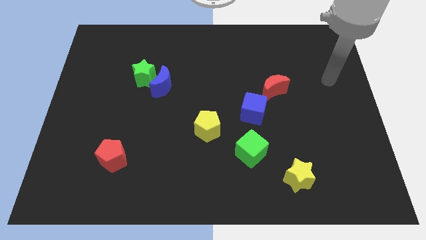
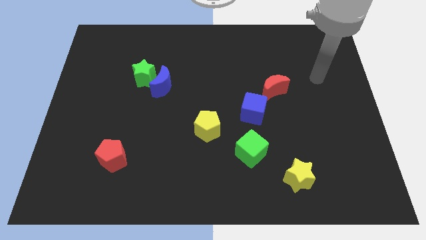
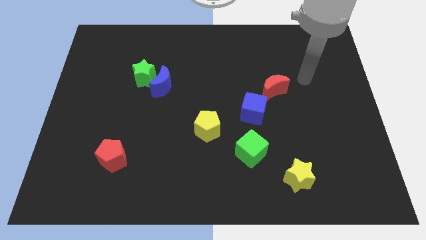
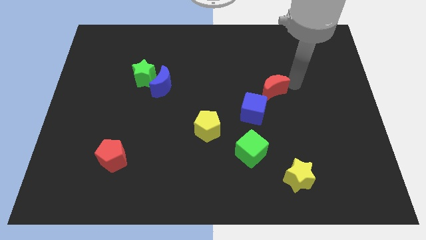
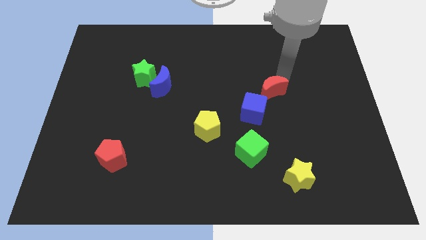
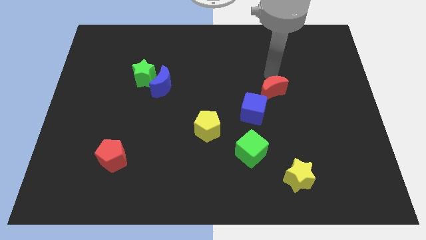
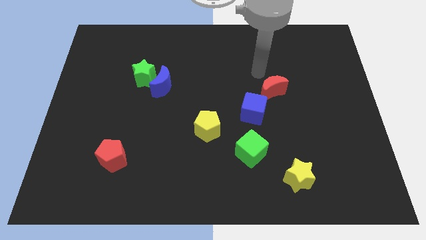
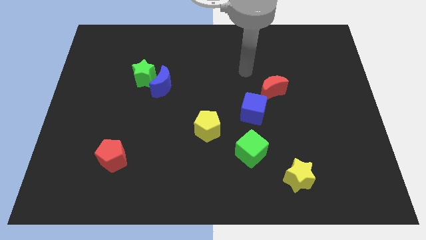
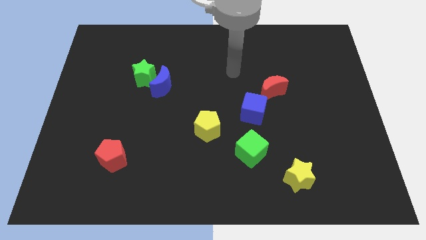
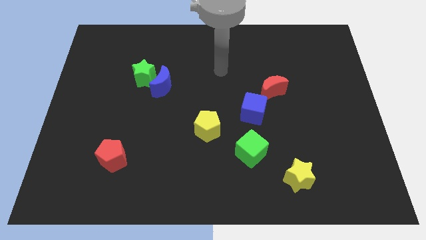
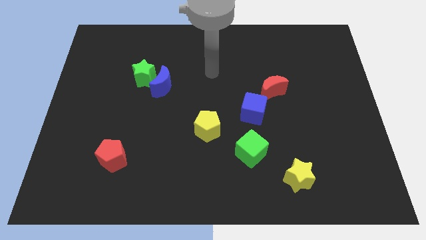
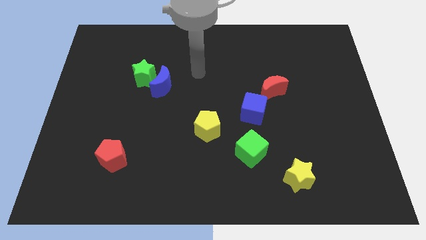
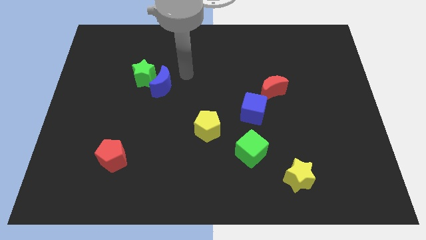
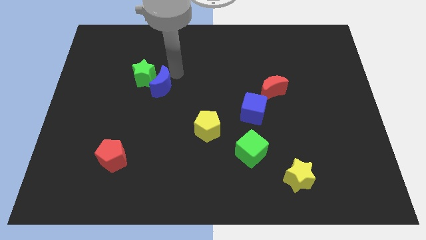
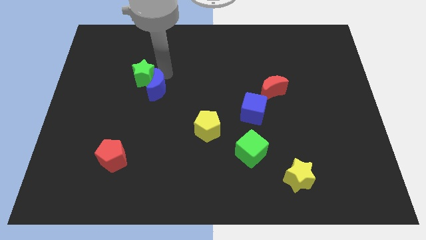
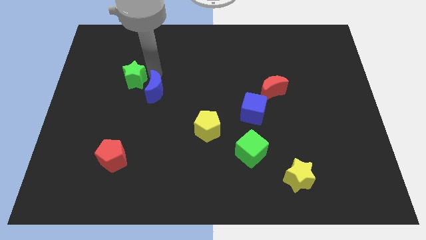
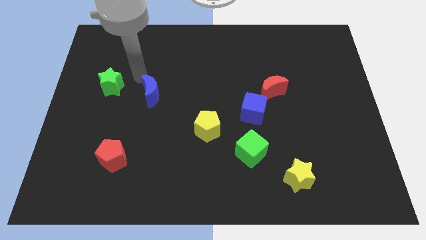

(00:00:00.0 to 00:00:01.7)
separate the blue moon from the green star

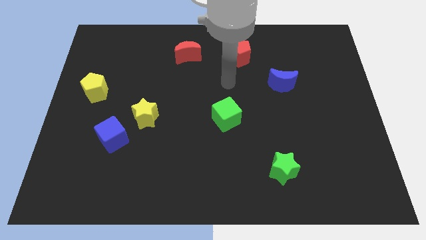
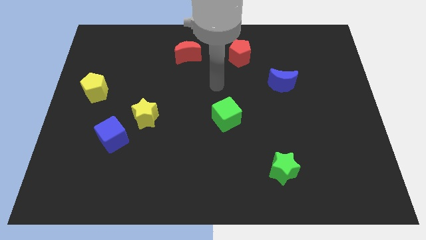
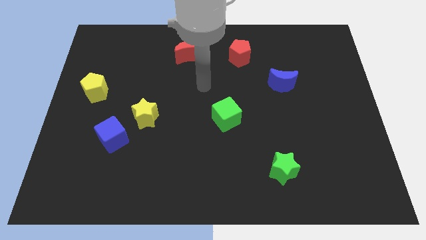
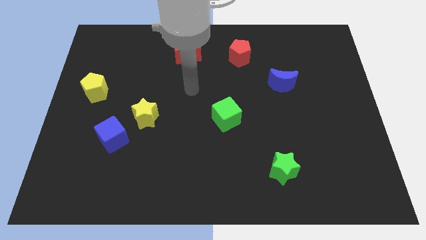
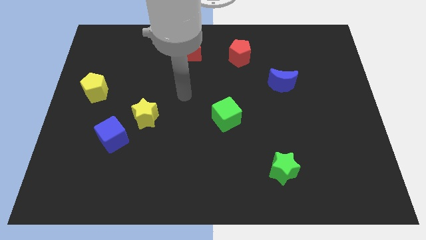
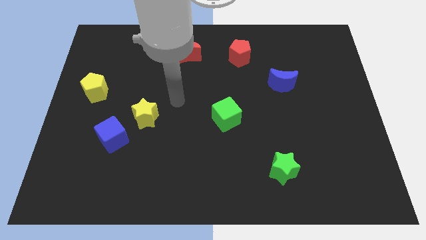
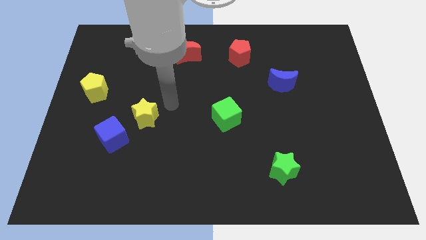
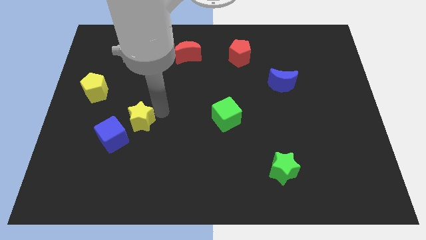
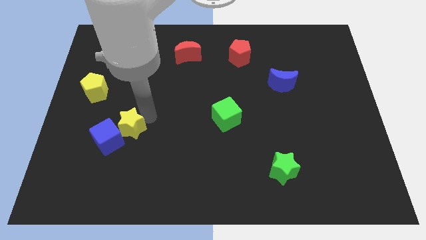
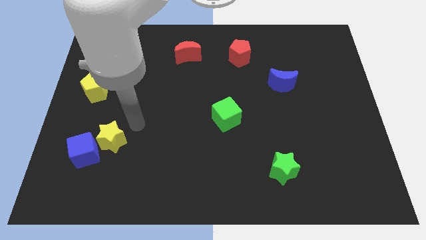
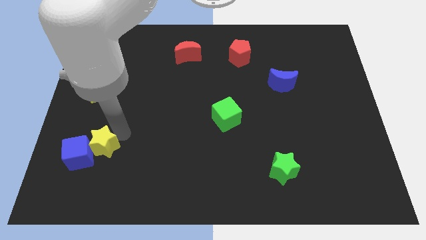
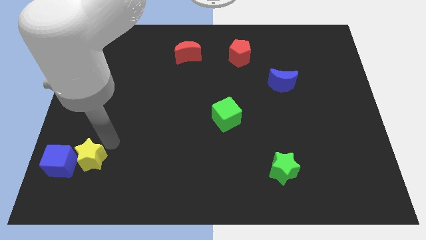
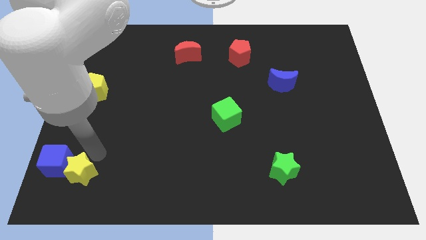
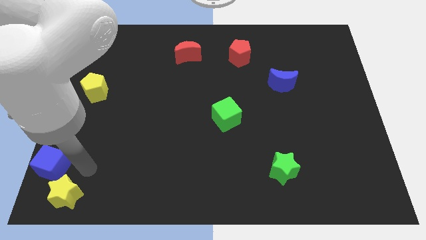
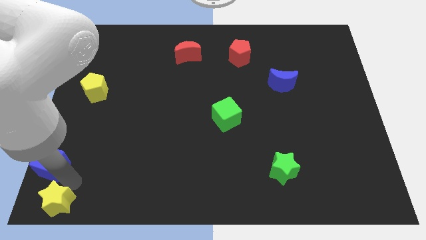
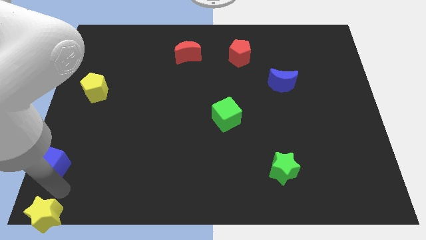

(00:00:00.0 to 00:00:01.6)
separate the blue cube from the yellow star

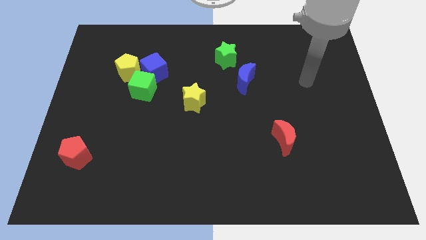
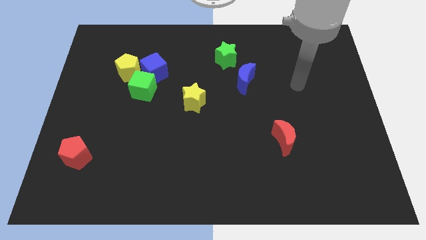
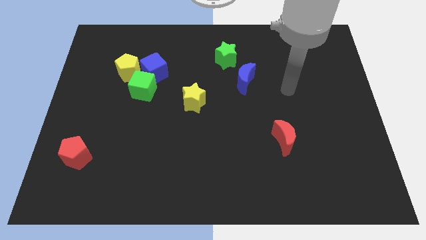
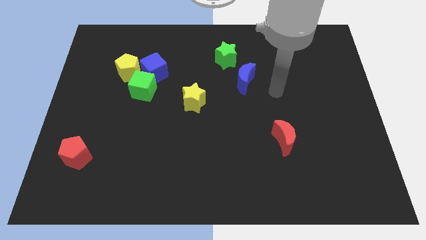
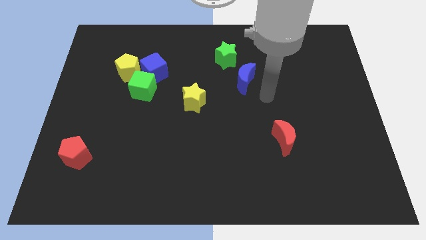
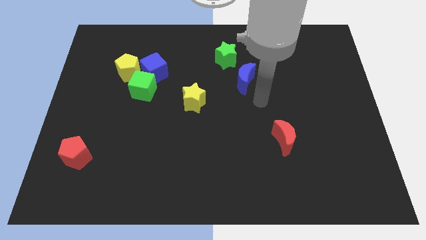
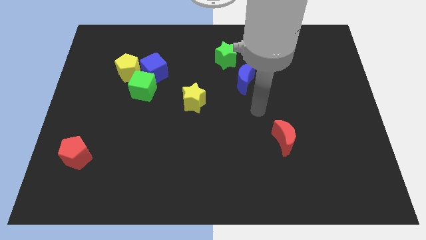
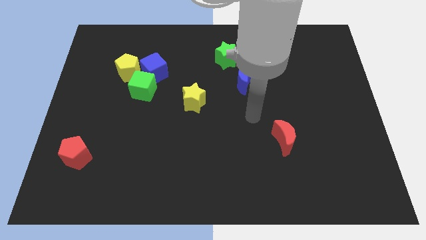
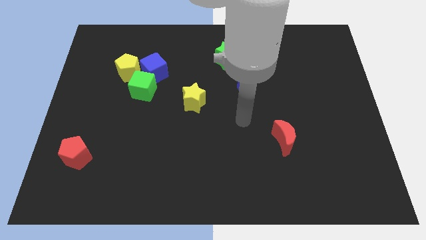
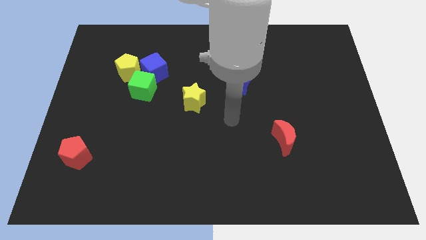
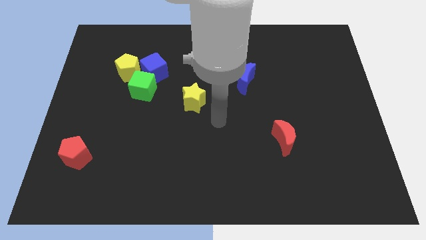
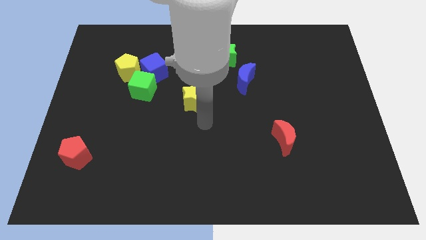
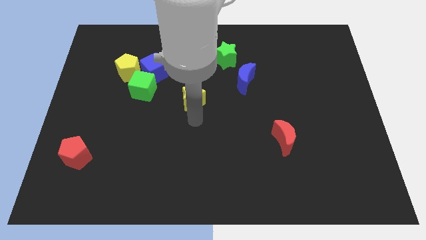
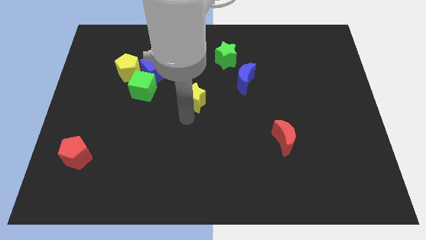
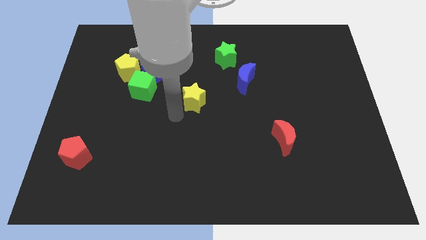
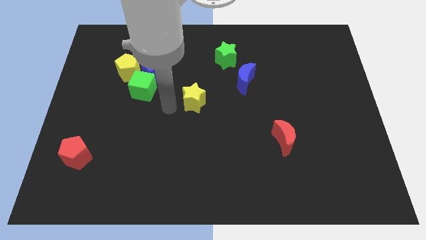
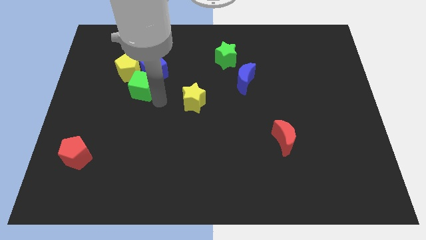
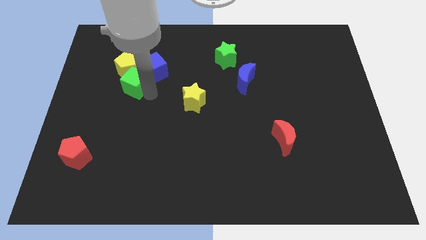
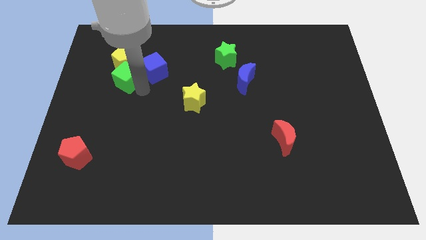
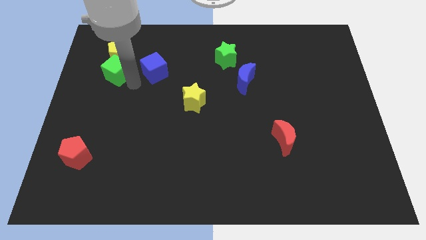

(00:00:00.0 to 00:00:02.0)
move the blue cube away from the green cube and yellow pentagon

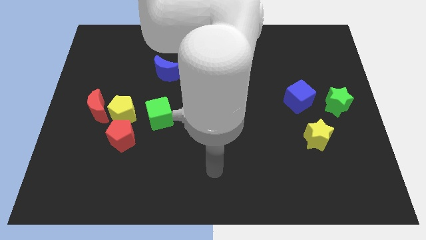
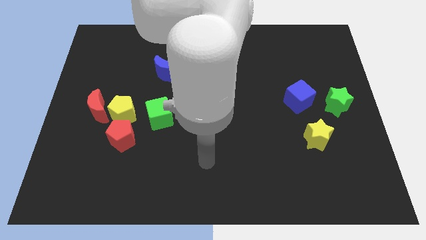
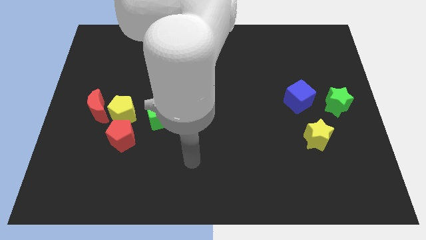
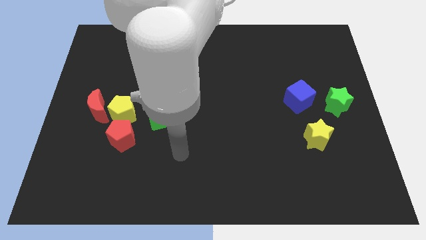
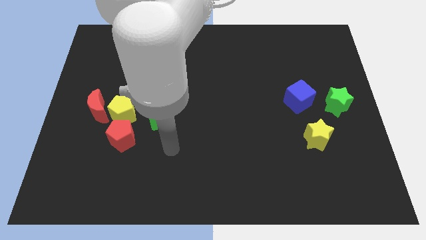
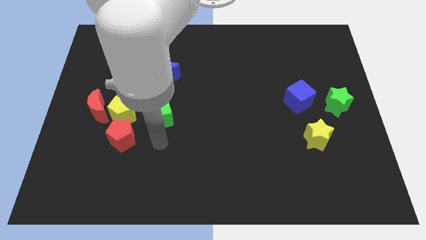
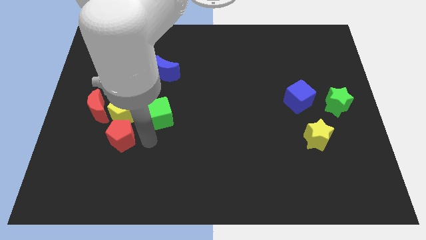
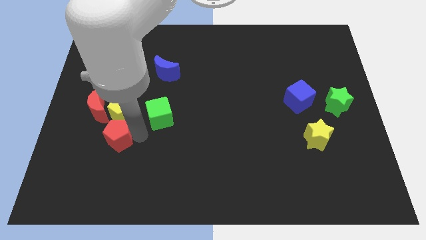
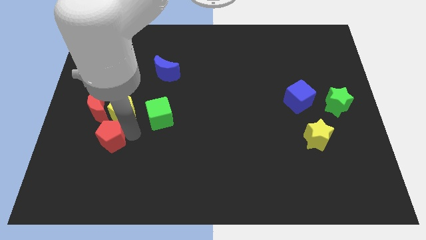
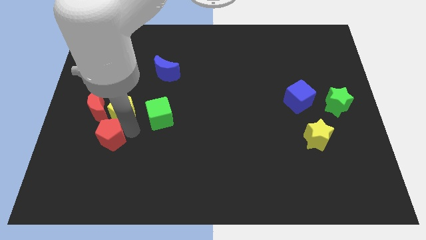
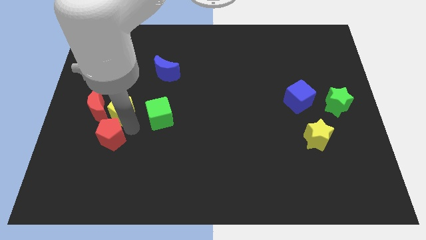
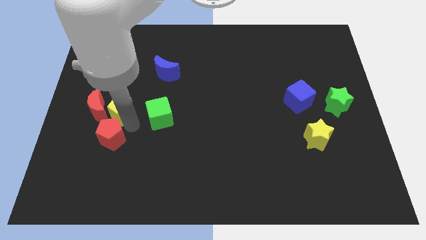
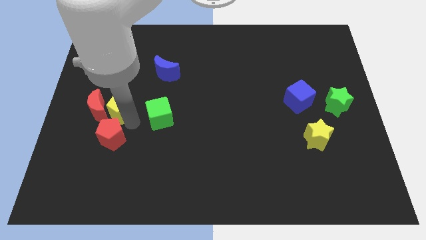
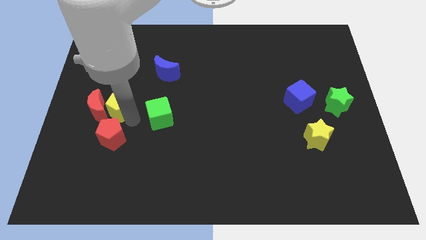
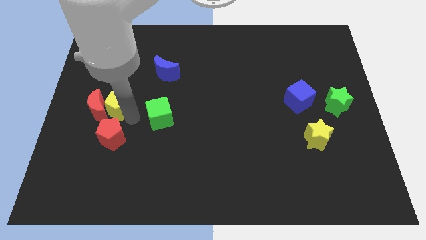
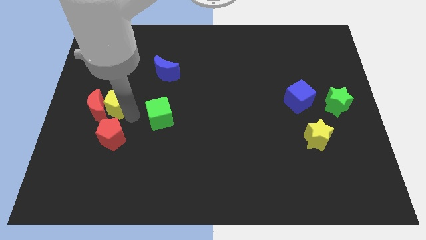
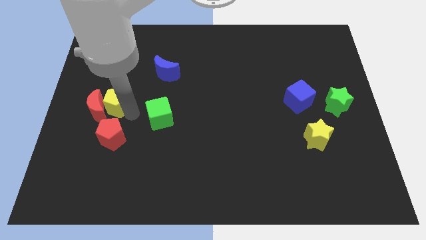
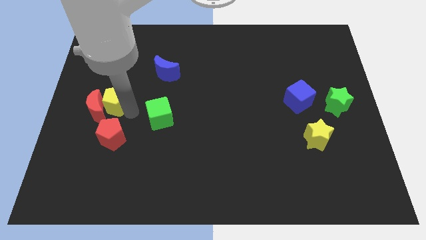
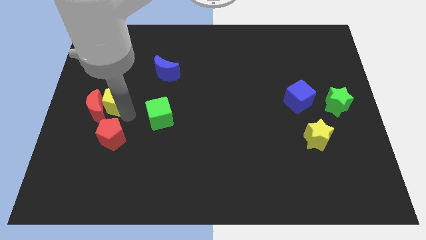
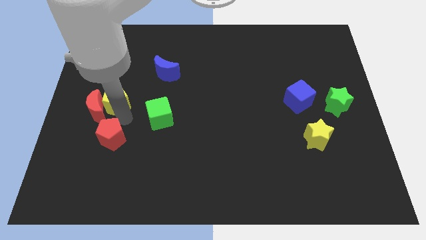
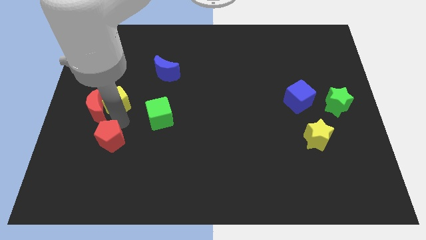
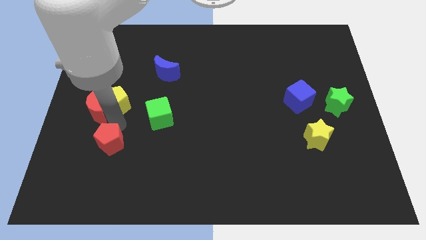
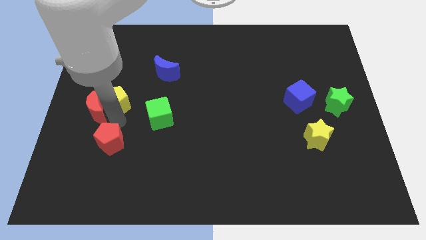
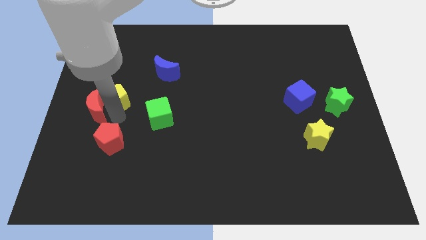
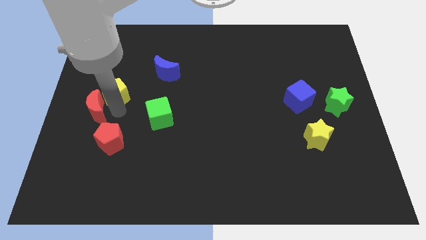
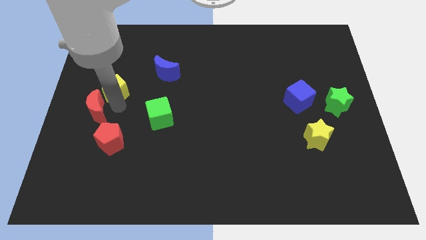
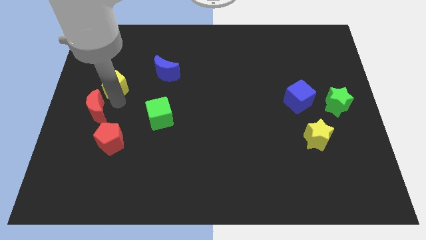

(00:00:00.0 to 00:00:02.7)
move the yellow pentagon away from the red moon, red pentagon, and green cube

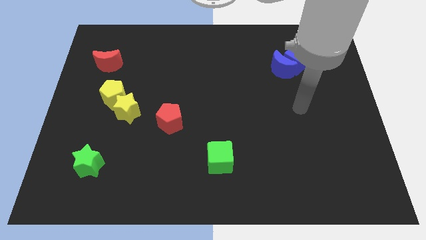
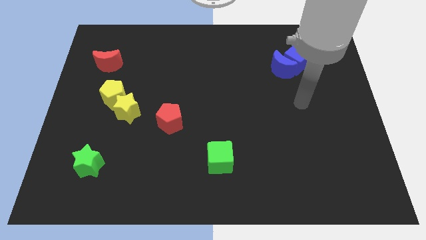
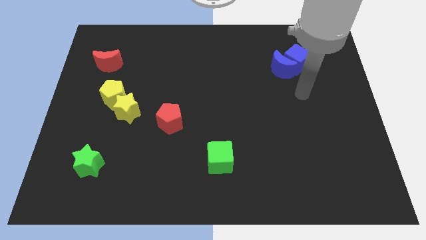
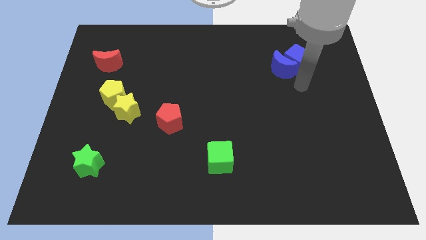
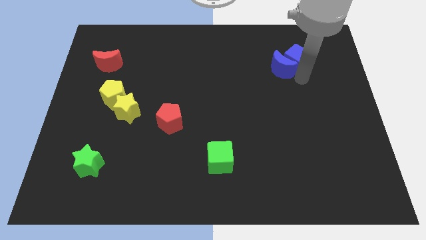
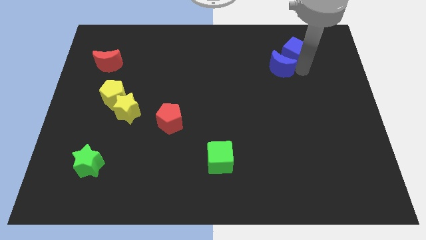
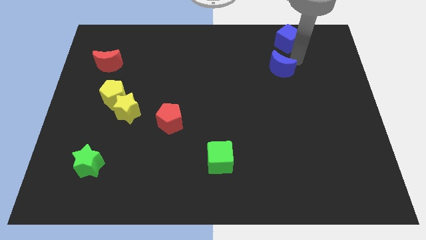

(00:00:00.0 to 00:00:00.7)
pull the blue moon apart from the blue cube

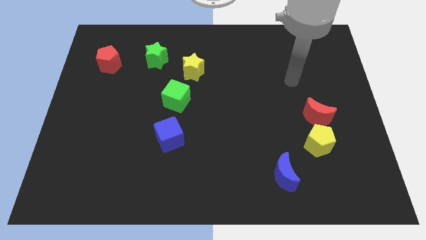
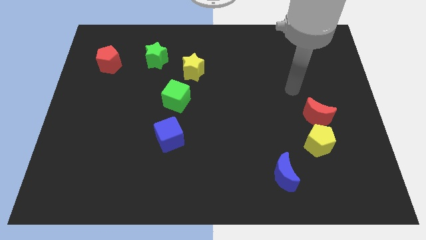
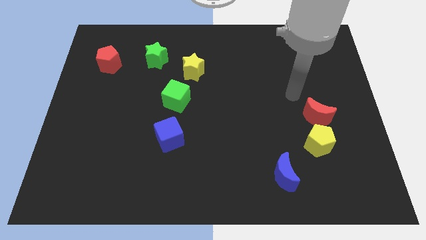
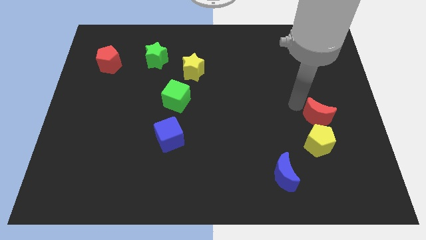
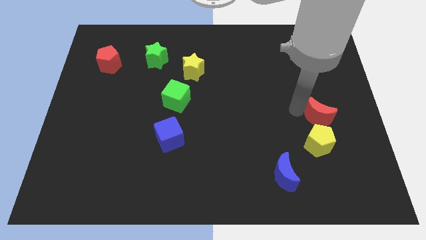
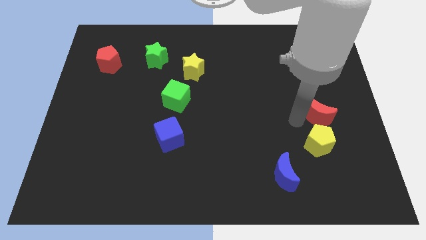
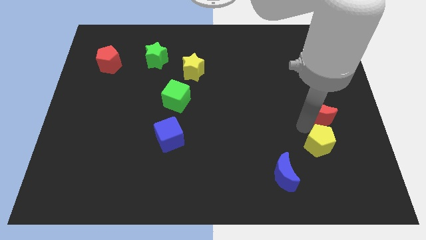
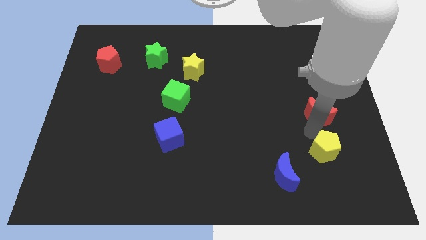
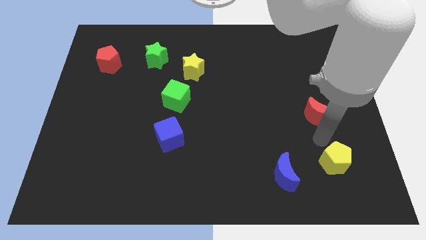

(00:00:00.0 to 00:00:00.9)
move the red moon away from the yellow pentagon
